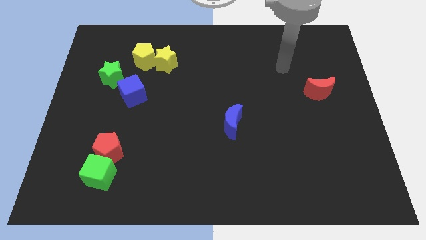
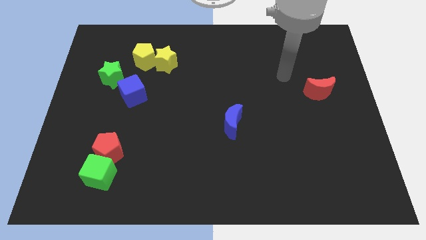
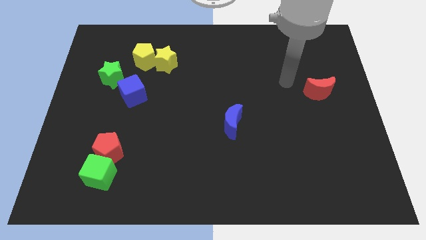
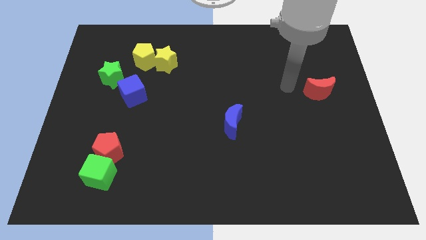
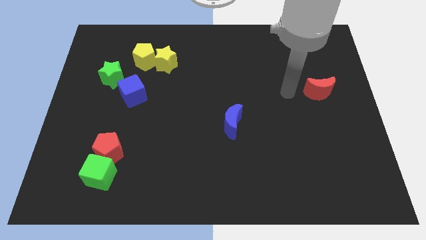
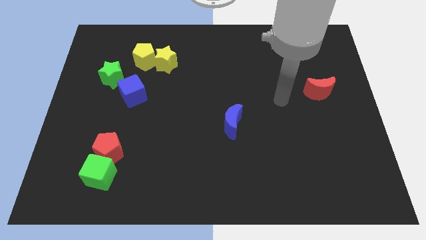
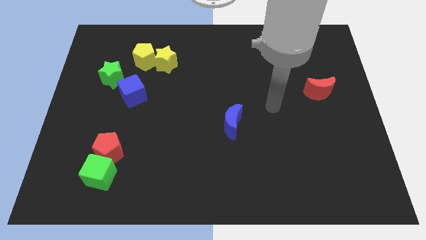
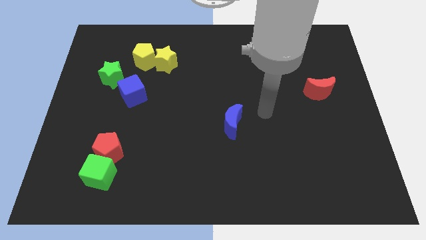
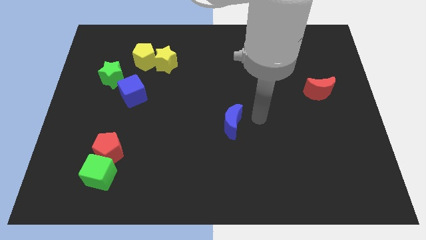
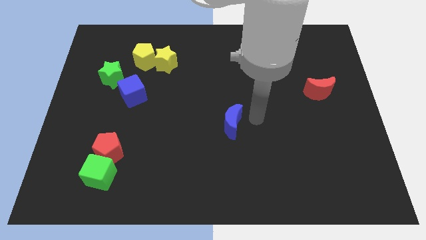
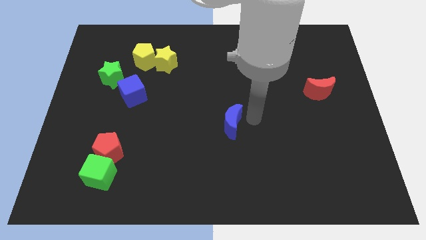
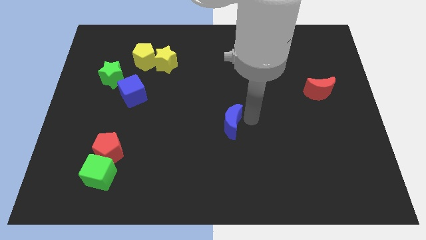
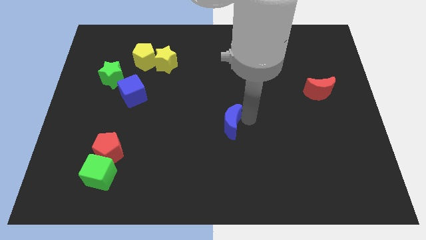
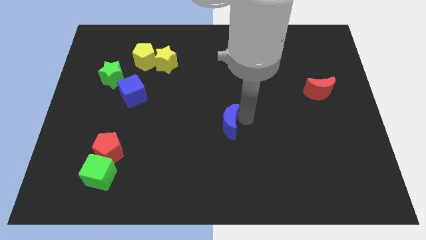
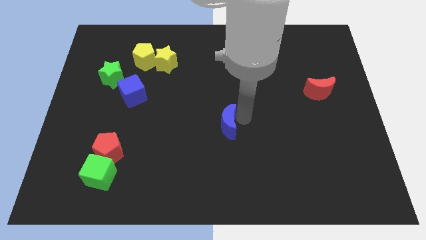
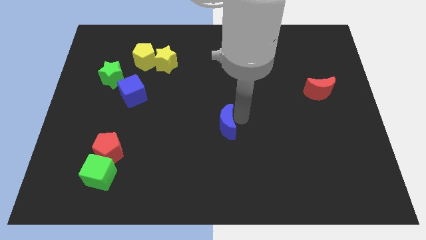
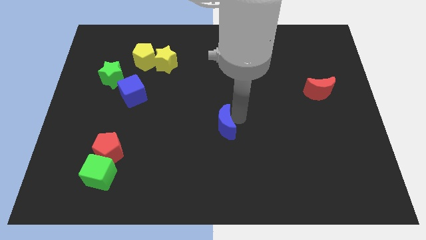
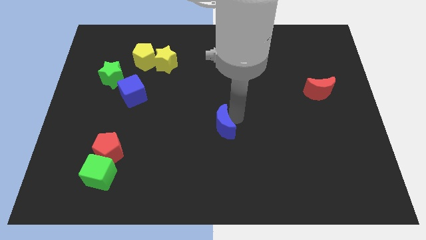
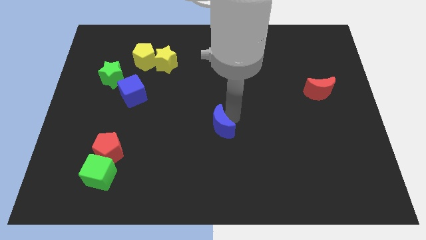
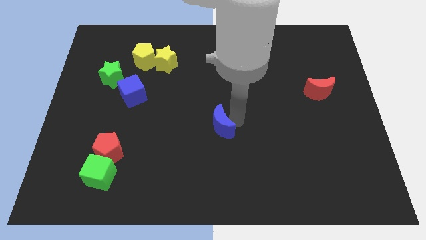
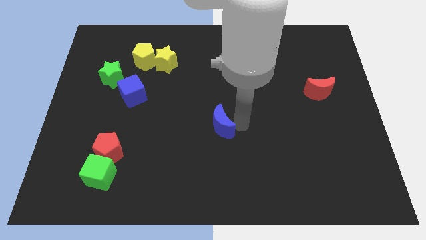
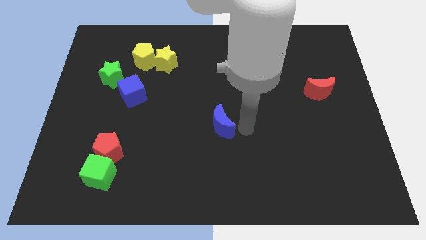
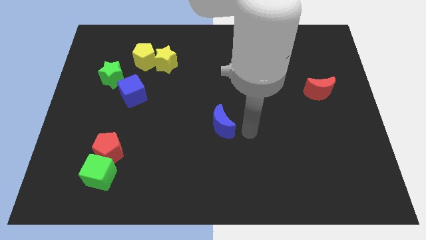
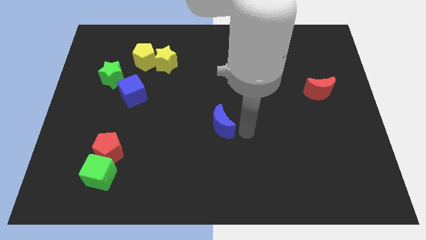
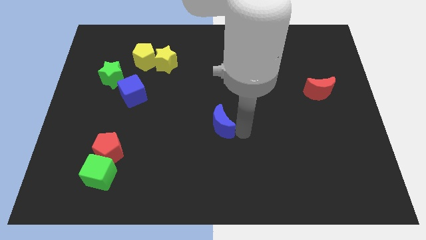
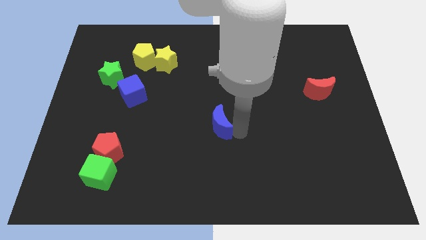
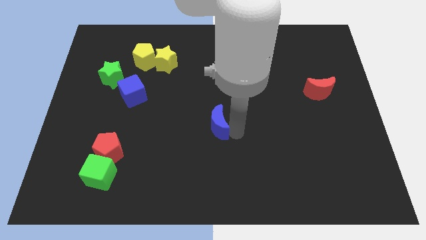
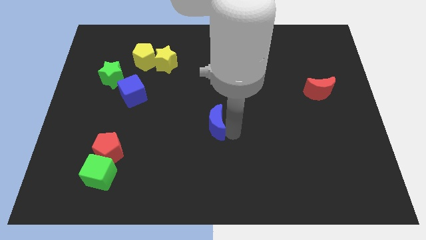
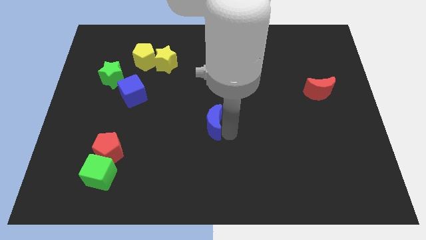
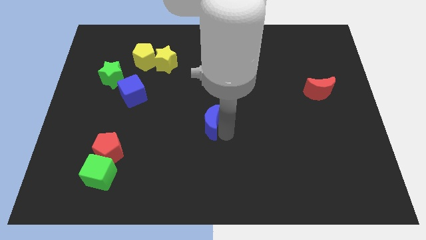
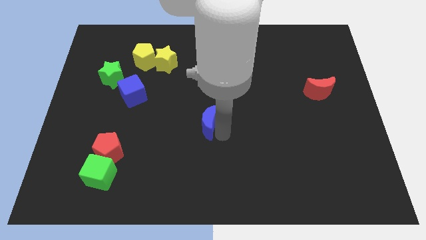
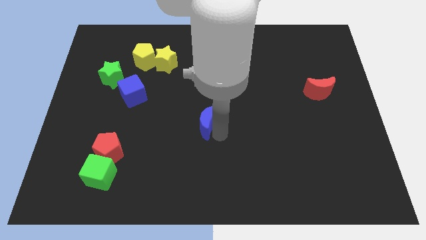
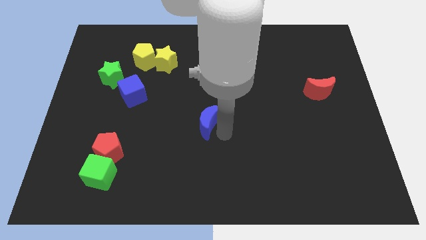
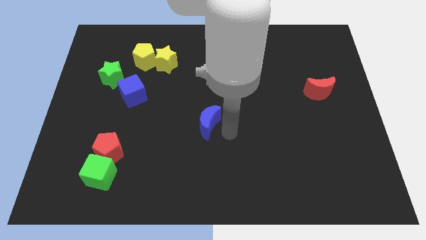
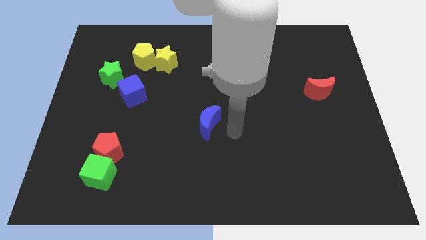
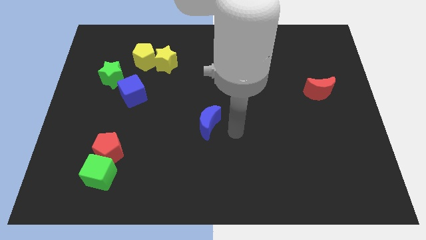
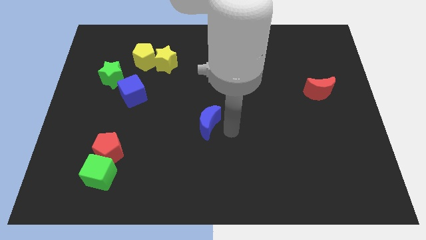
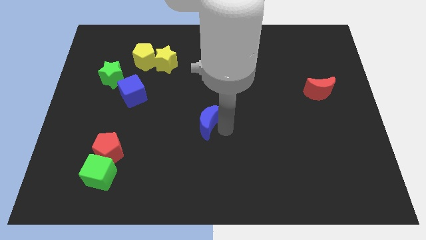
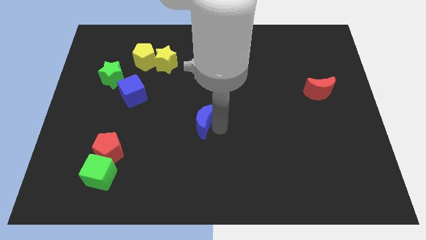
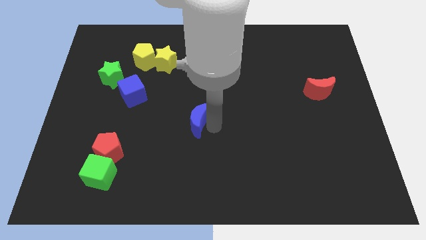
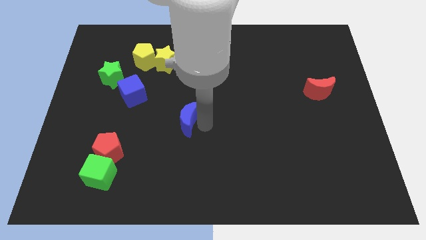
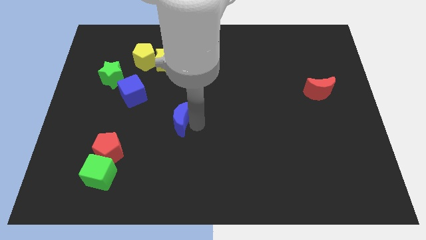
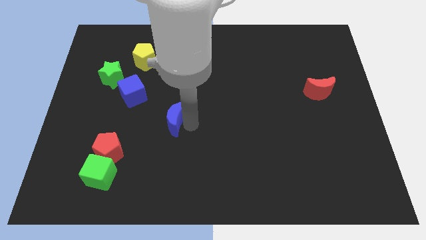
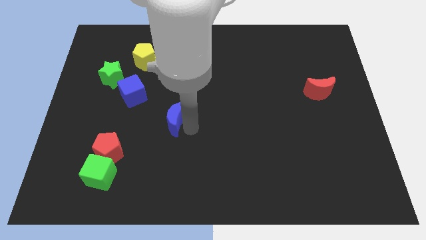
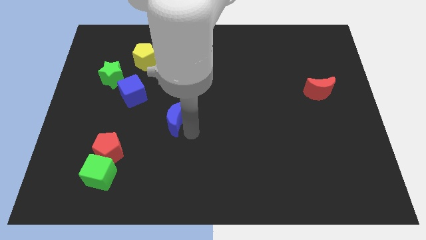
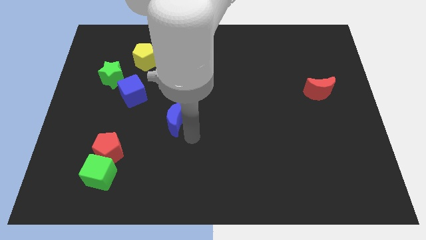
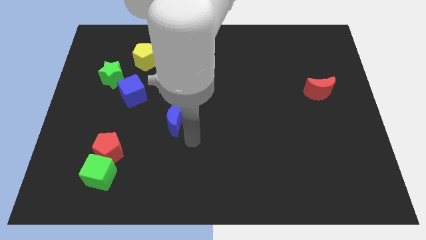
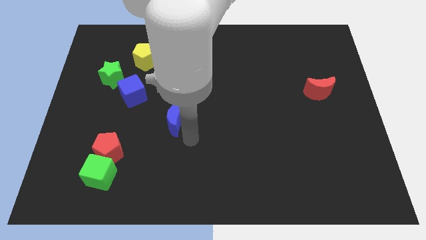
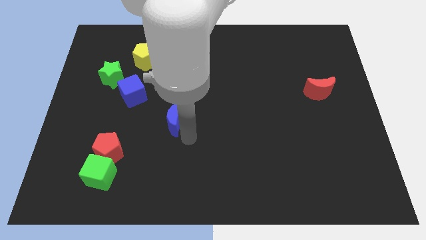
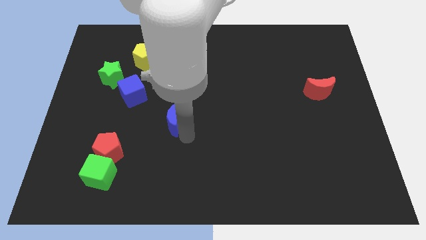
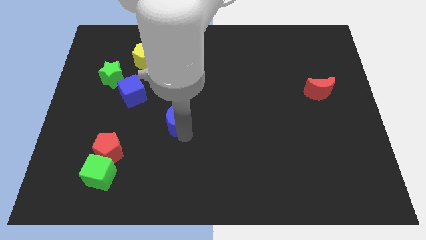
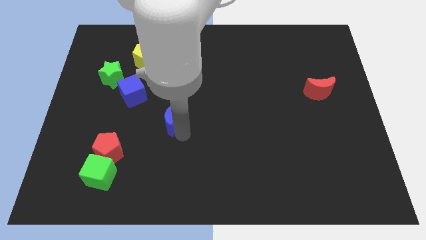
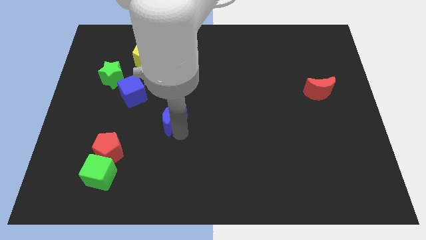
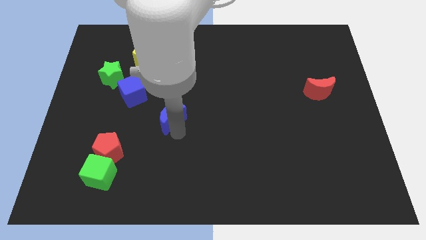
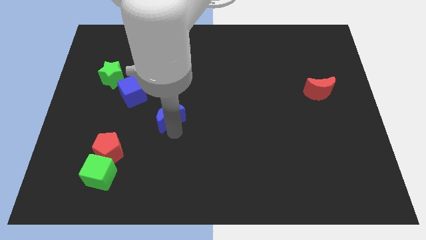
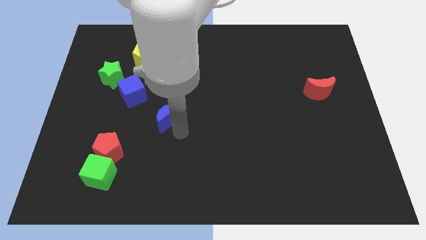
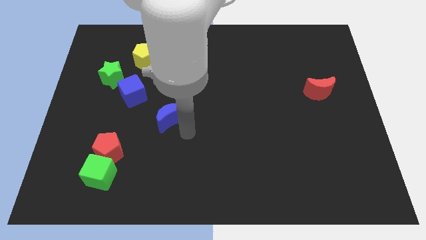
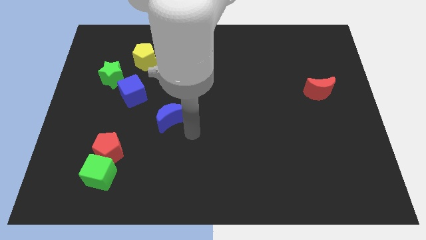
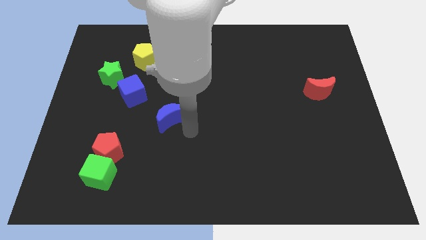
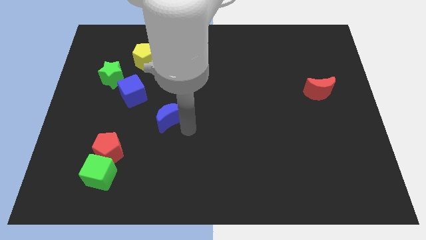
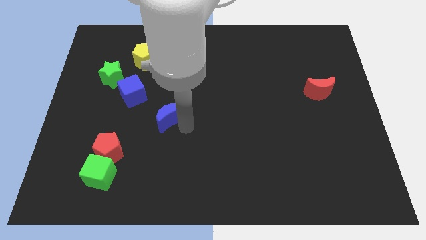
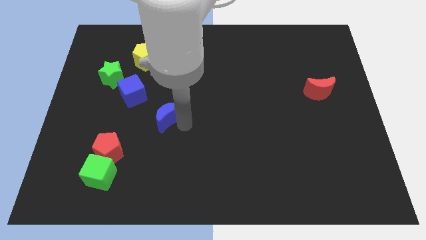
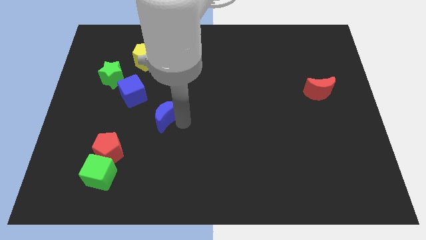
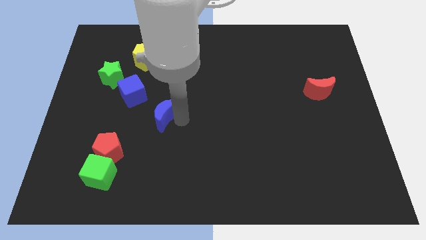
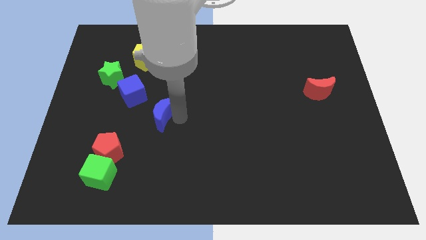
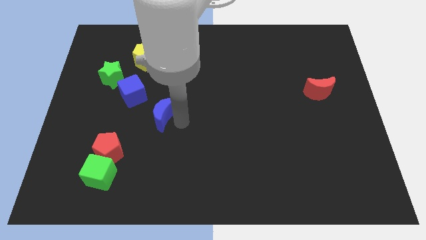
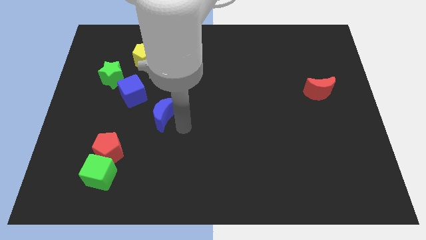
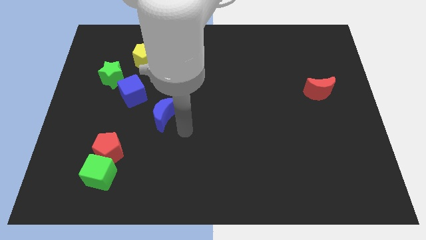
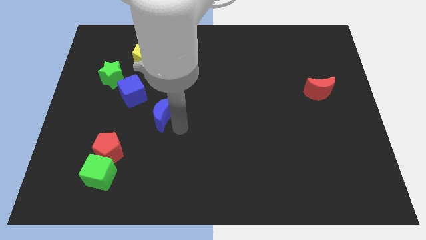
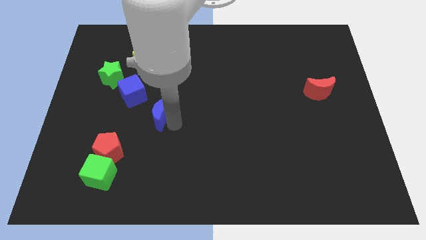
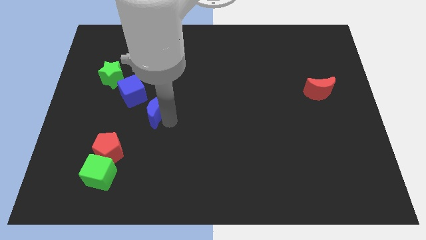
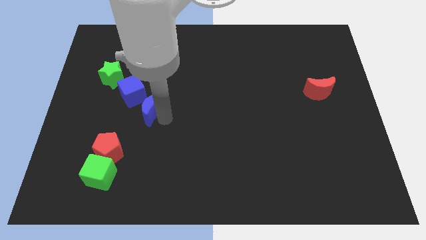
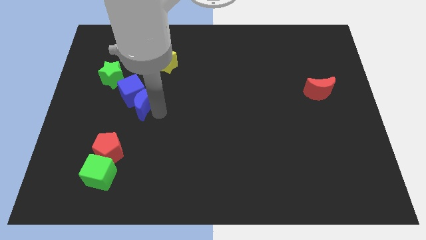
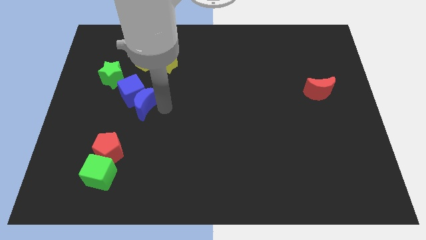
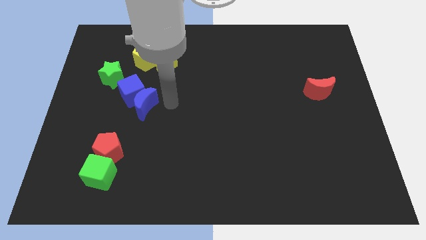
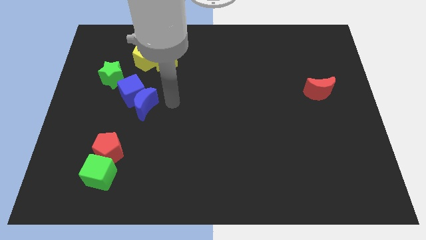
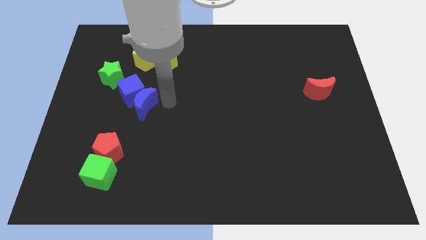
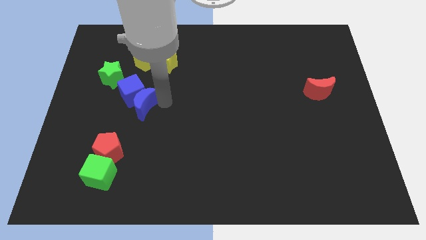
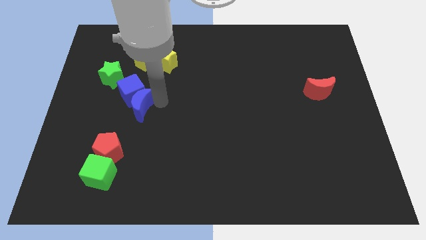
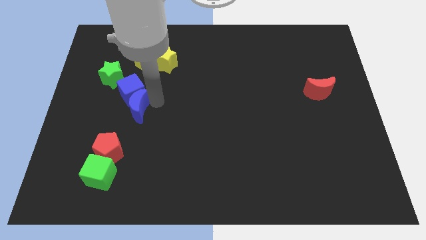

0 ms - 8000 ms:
slide the blue moon to the bottom left side of the blue cube
